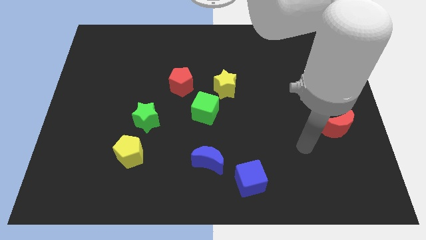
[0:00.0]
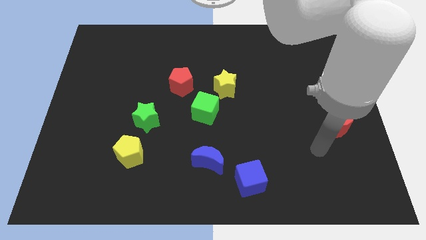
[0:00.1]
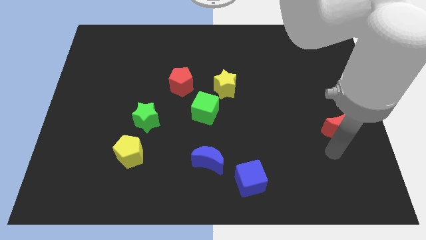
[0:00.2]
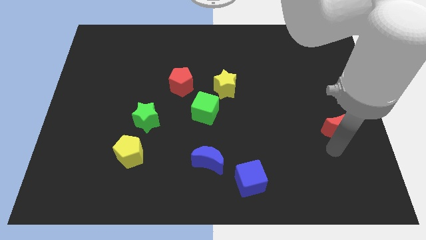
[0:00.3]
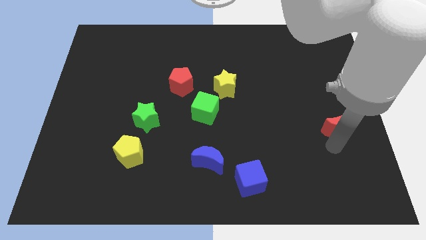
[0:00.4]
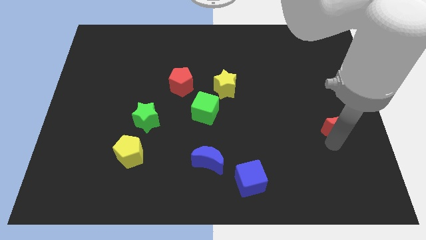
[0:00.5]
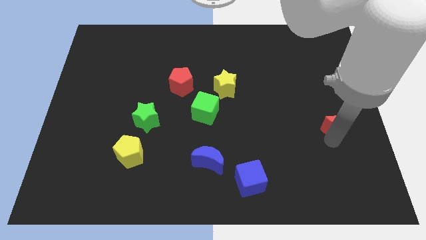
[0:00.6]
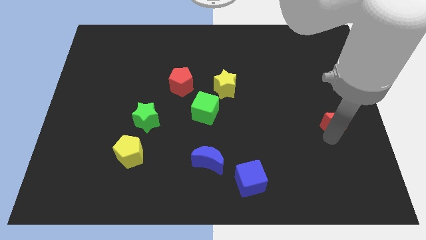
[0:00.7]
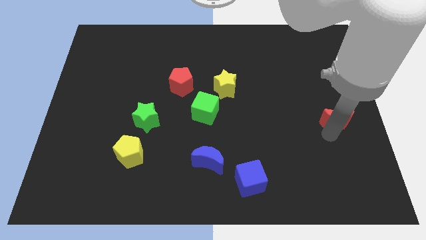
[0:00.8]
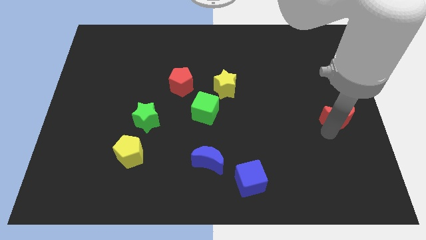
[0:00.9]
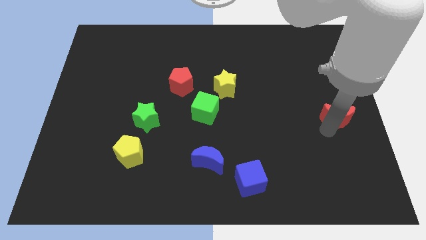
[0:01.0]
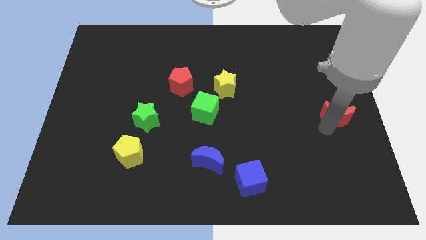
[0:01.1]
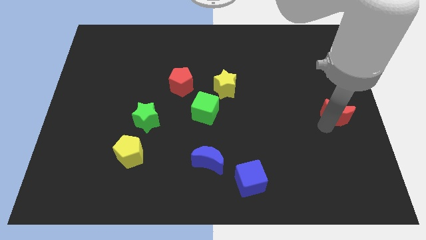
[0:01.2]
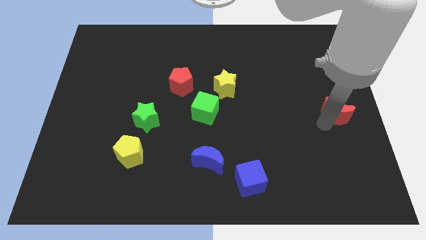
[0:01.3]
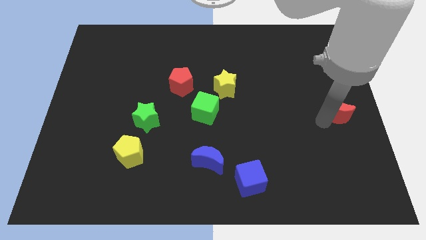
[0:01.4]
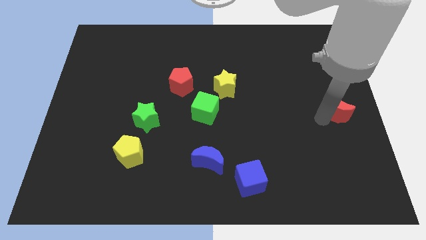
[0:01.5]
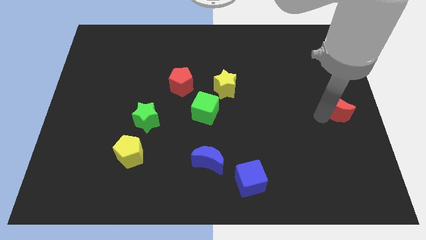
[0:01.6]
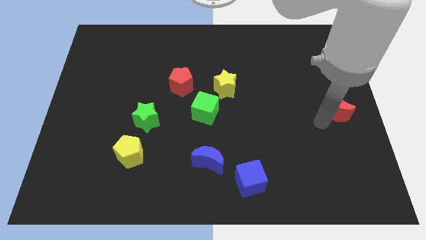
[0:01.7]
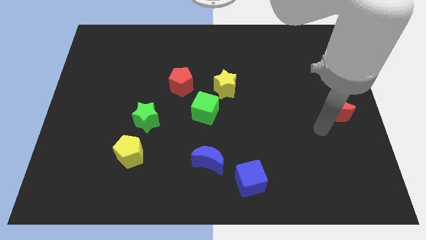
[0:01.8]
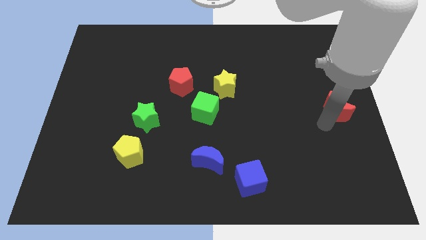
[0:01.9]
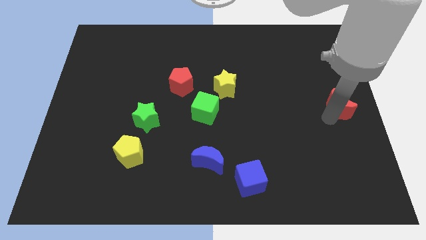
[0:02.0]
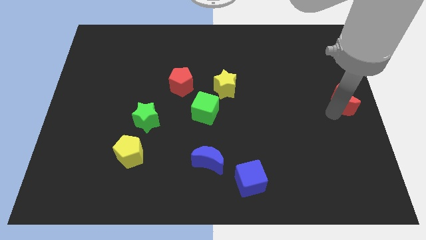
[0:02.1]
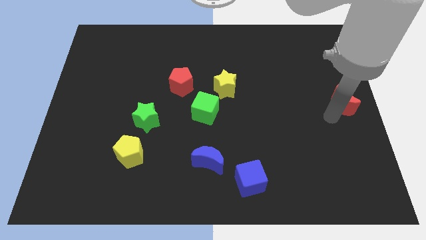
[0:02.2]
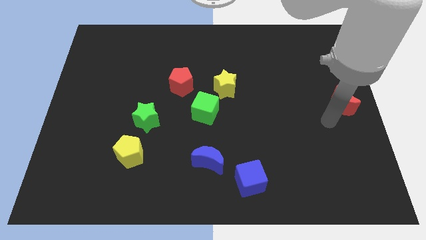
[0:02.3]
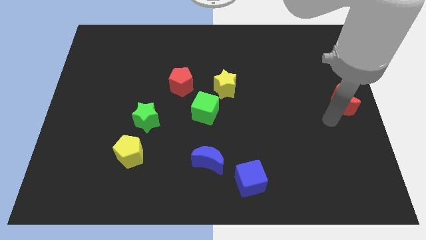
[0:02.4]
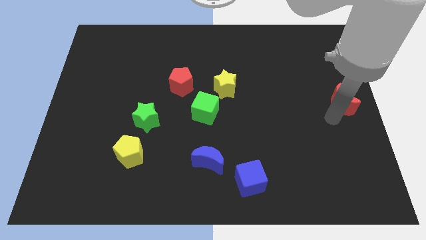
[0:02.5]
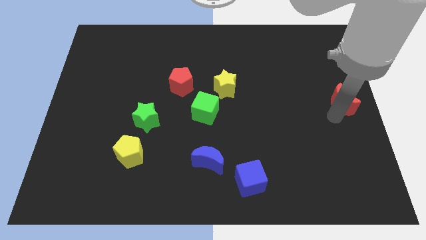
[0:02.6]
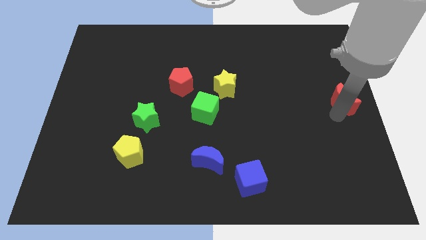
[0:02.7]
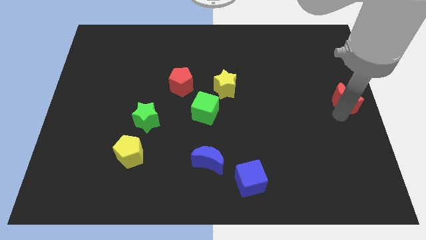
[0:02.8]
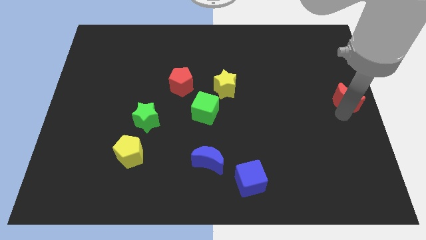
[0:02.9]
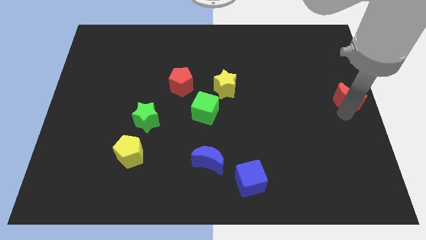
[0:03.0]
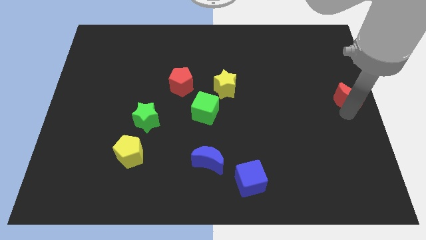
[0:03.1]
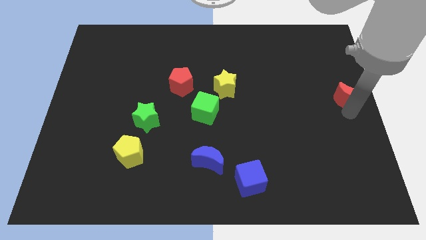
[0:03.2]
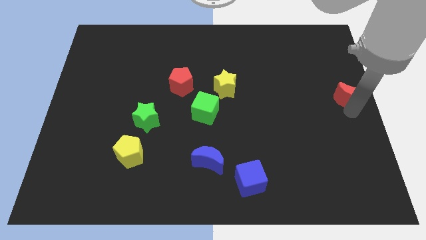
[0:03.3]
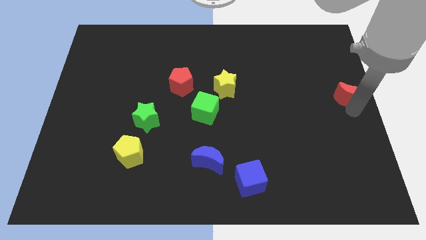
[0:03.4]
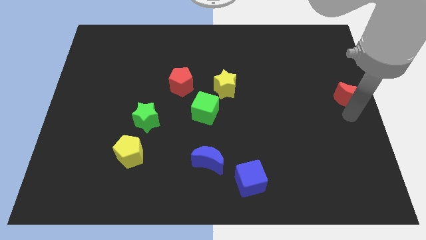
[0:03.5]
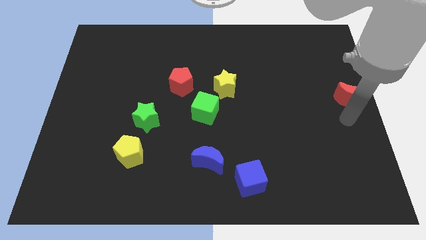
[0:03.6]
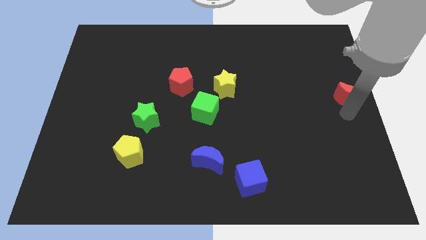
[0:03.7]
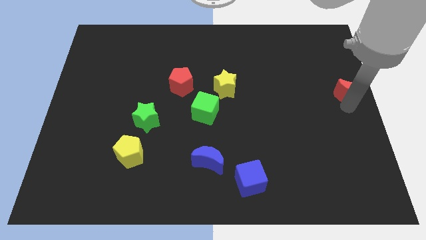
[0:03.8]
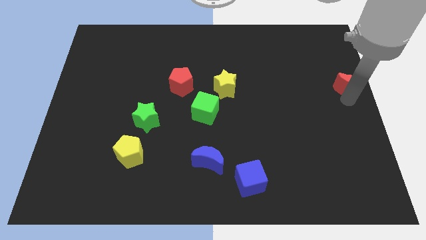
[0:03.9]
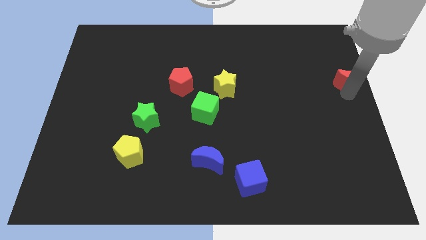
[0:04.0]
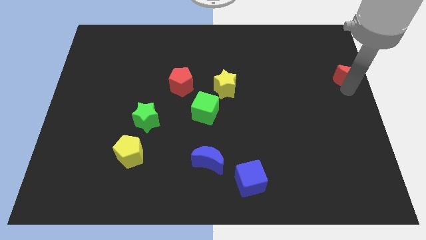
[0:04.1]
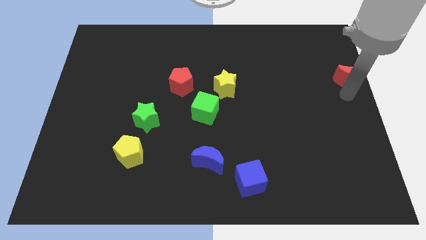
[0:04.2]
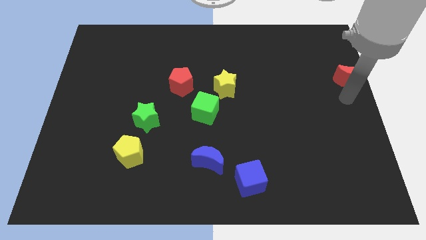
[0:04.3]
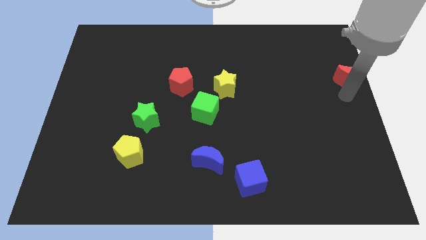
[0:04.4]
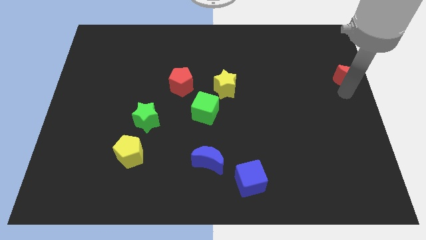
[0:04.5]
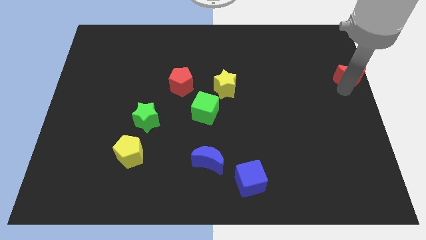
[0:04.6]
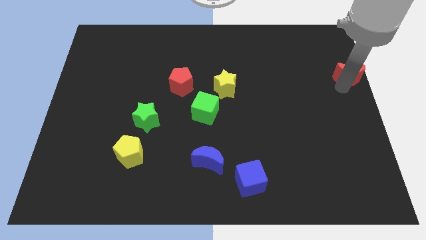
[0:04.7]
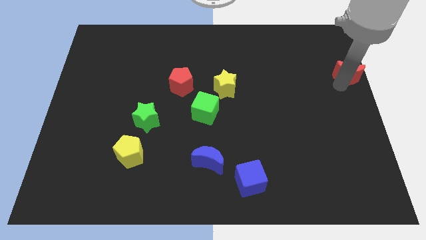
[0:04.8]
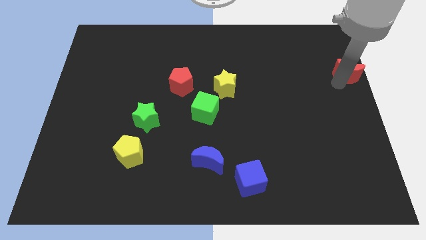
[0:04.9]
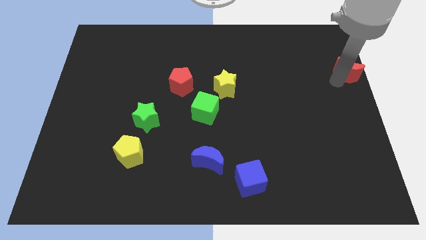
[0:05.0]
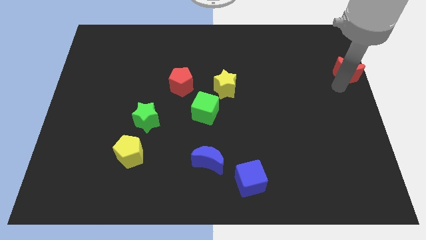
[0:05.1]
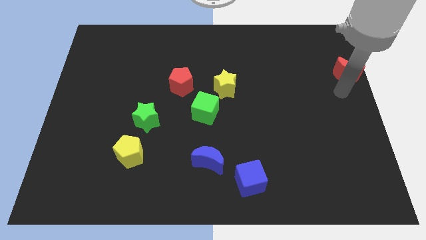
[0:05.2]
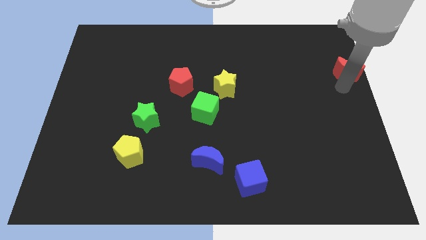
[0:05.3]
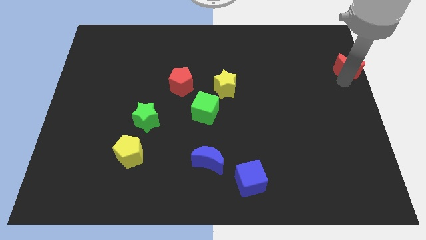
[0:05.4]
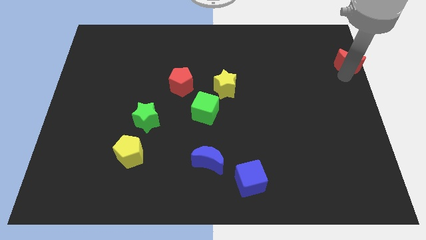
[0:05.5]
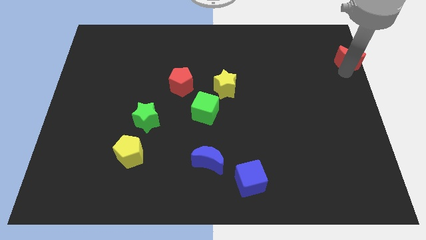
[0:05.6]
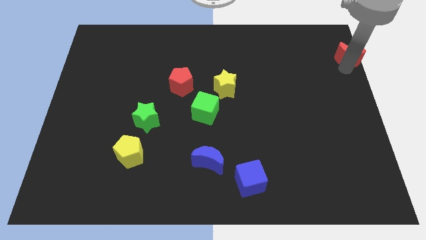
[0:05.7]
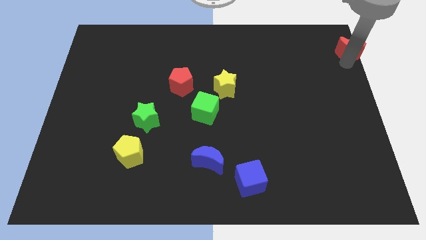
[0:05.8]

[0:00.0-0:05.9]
slide the red moon to the top right

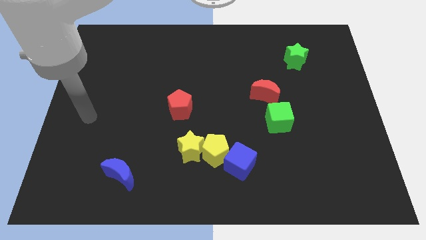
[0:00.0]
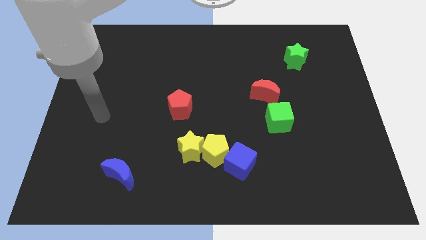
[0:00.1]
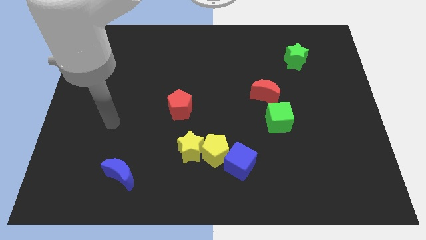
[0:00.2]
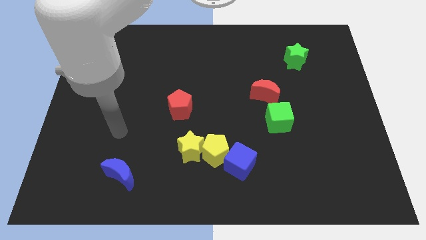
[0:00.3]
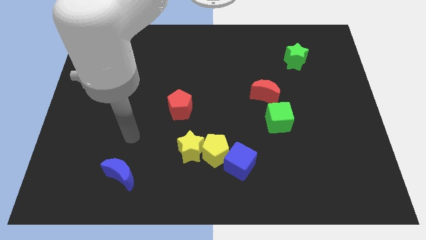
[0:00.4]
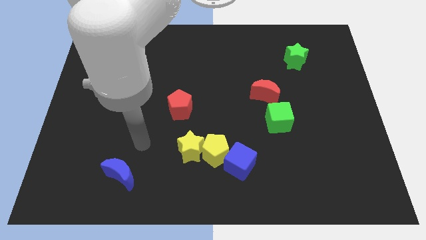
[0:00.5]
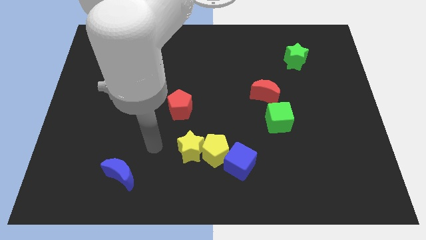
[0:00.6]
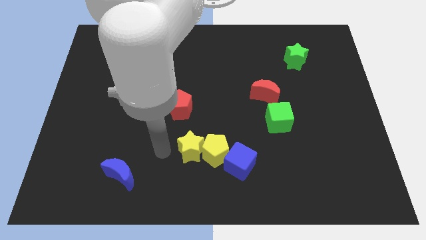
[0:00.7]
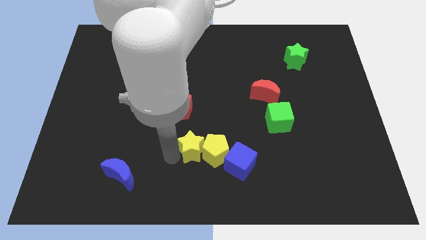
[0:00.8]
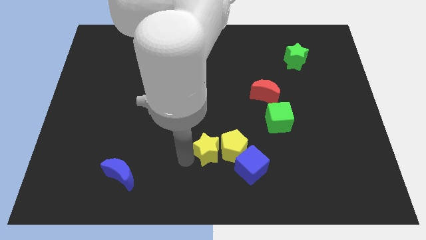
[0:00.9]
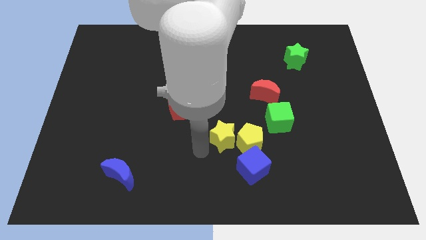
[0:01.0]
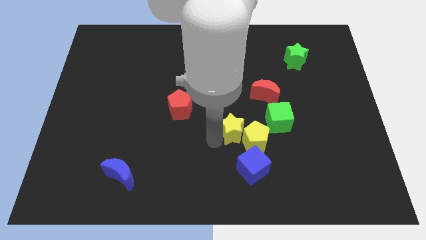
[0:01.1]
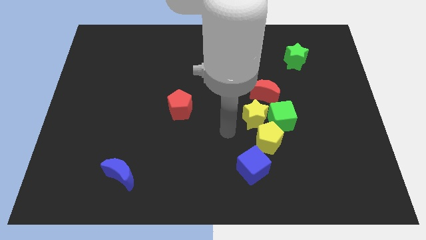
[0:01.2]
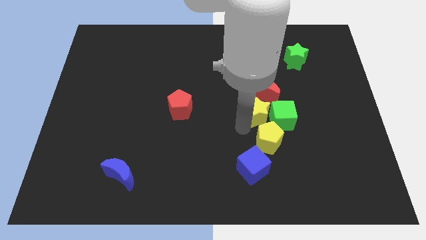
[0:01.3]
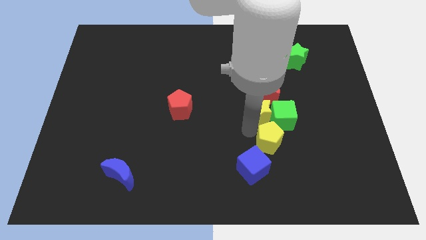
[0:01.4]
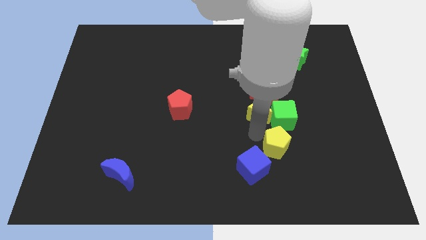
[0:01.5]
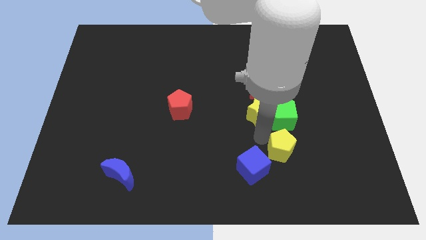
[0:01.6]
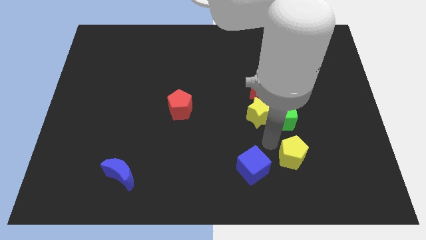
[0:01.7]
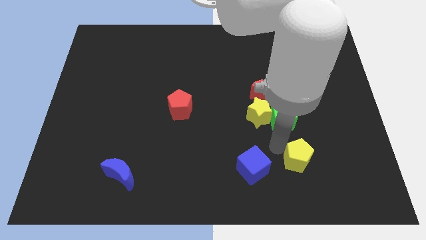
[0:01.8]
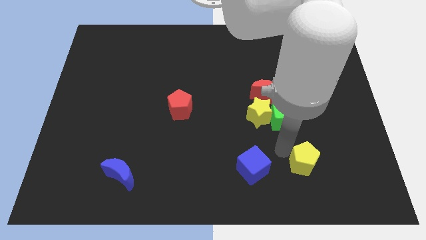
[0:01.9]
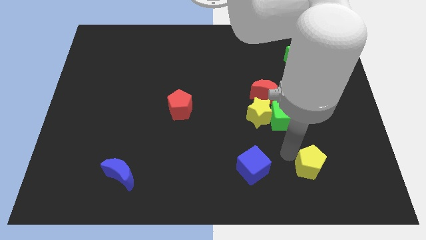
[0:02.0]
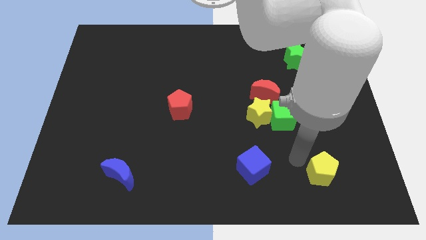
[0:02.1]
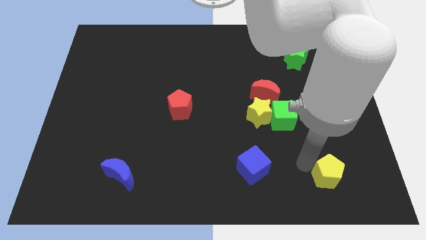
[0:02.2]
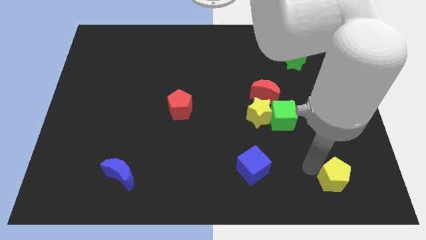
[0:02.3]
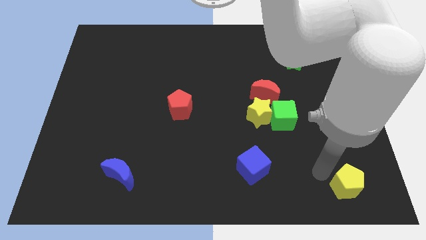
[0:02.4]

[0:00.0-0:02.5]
slide the yellow pentagon to the lower right corner
